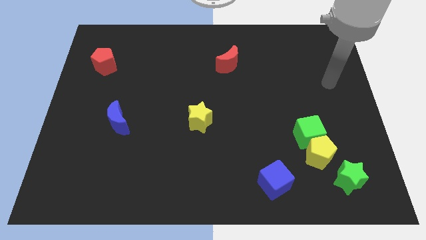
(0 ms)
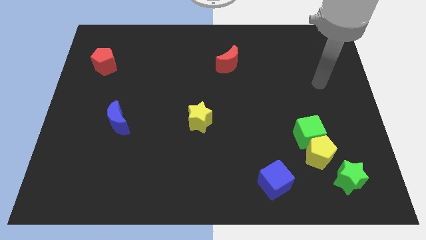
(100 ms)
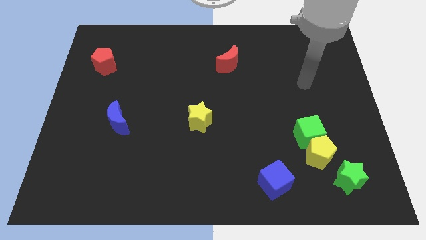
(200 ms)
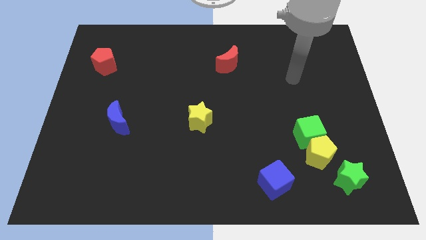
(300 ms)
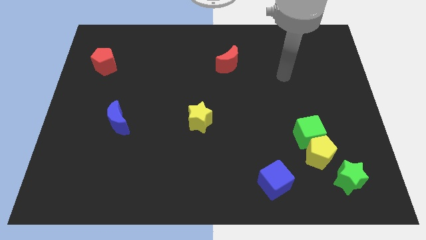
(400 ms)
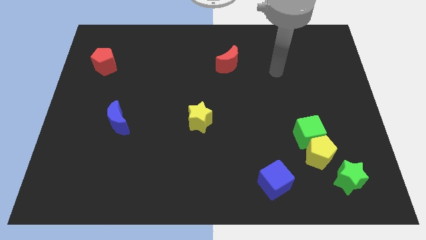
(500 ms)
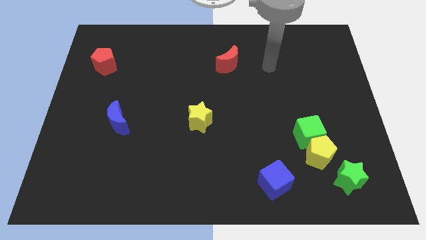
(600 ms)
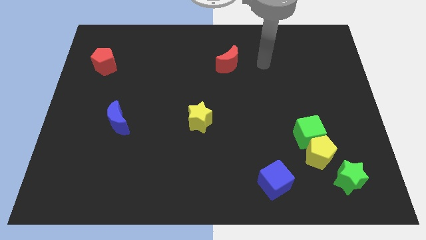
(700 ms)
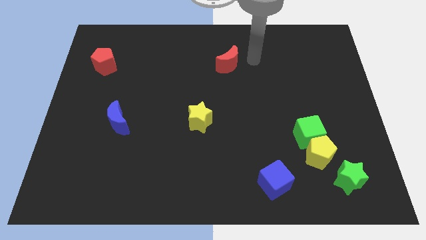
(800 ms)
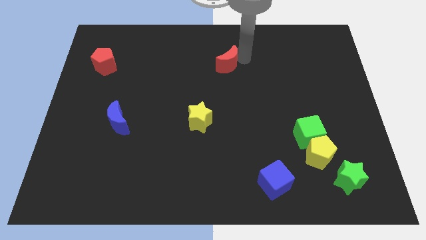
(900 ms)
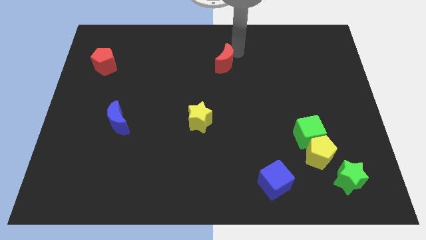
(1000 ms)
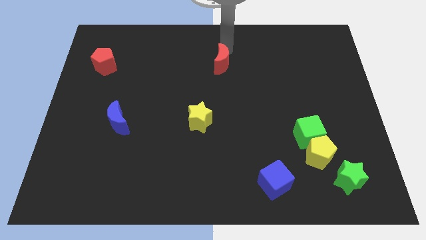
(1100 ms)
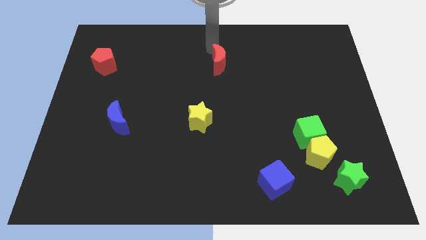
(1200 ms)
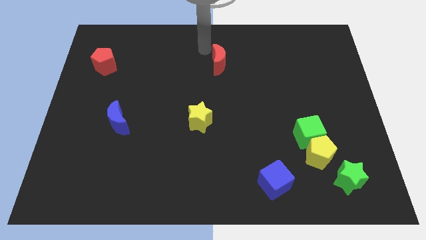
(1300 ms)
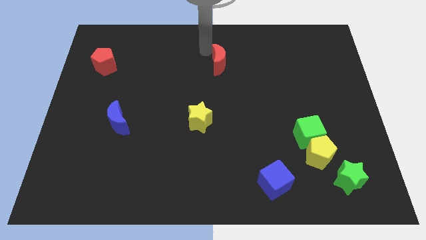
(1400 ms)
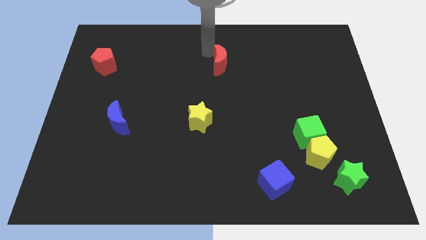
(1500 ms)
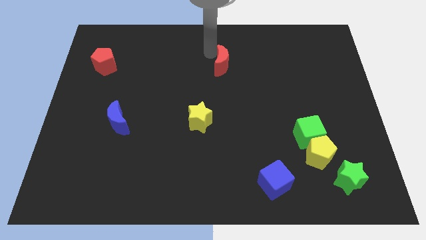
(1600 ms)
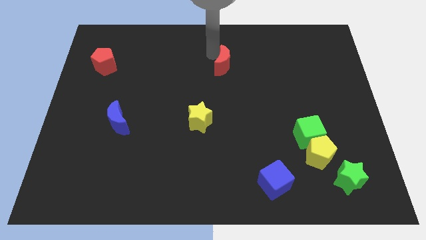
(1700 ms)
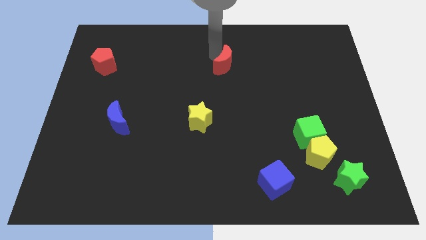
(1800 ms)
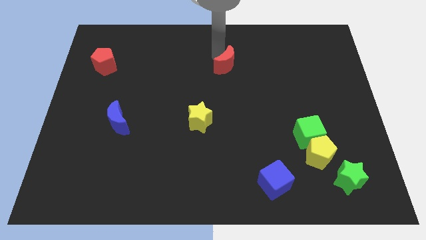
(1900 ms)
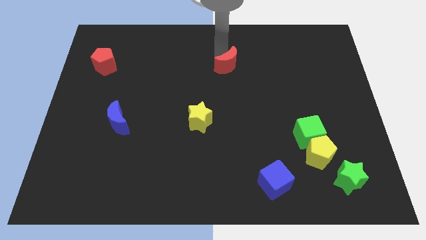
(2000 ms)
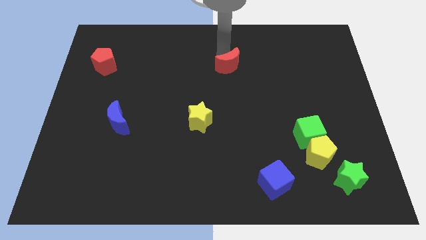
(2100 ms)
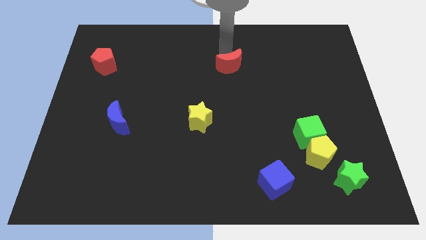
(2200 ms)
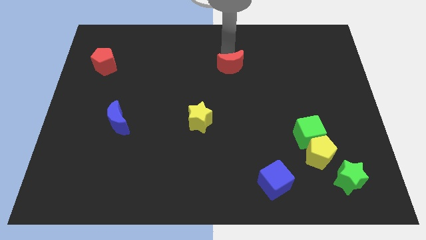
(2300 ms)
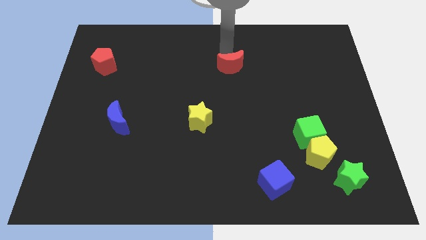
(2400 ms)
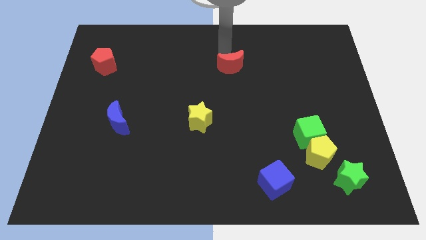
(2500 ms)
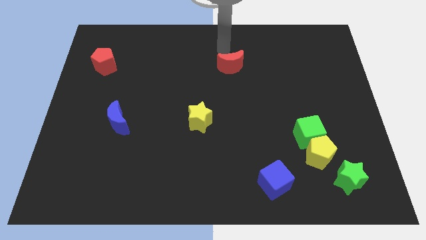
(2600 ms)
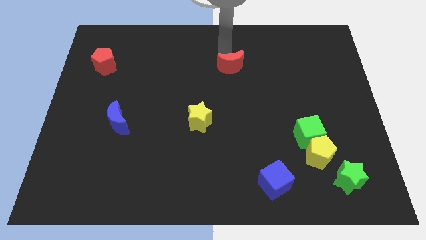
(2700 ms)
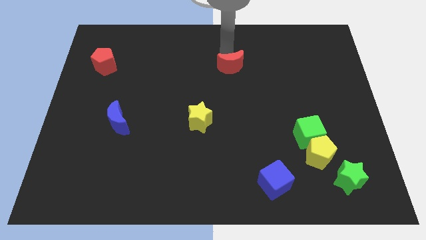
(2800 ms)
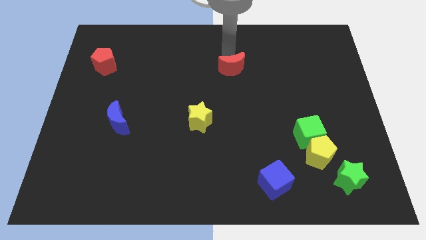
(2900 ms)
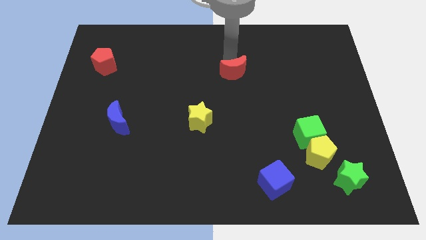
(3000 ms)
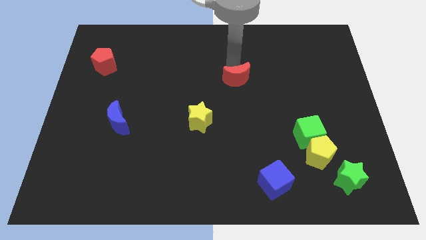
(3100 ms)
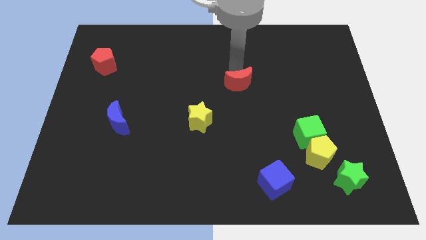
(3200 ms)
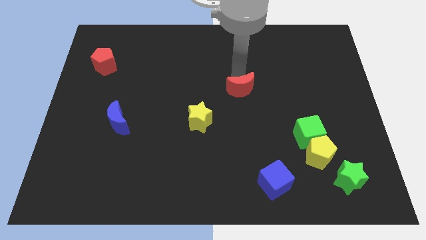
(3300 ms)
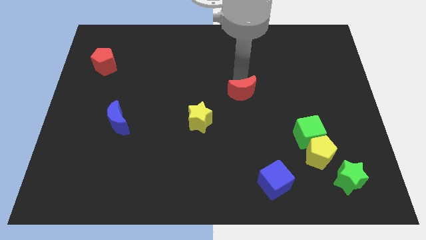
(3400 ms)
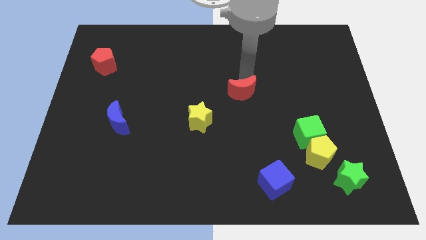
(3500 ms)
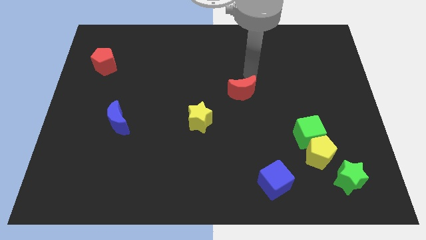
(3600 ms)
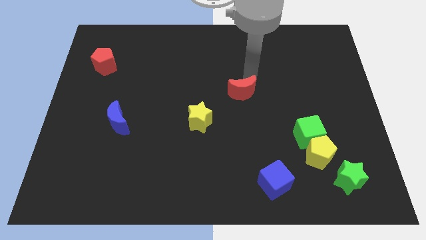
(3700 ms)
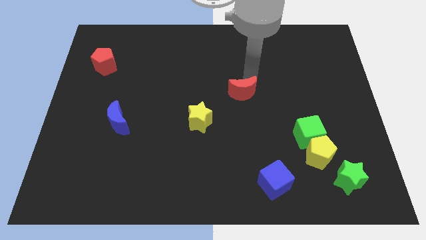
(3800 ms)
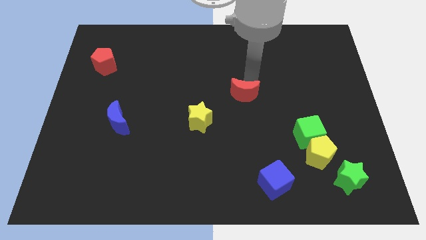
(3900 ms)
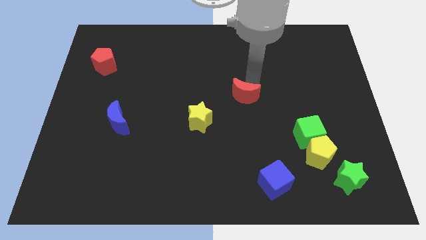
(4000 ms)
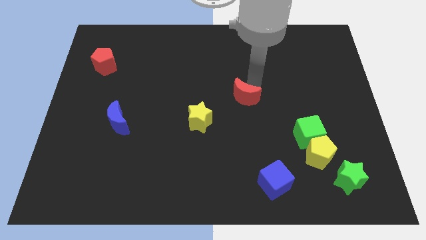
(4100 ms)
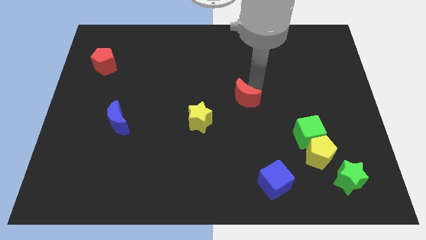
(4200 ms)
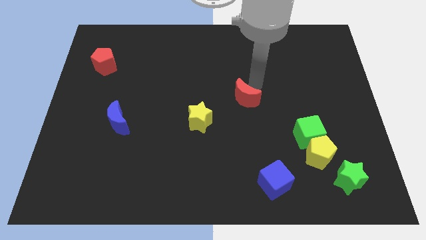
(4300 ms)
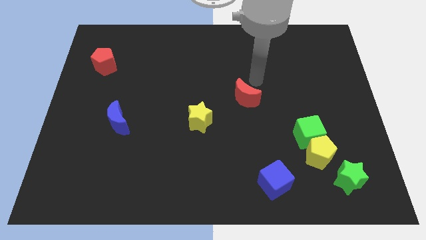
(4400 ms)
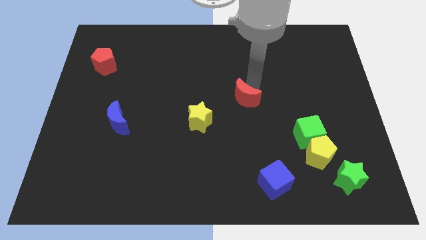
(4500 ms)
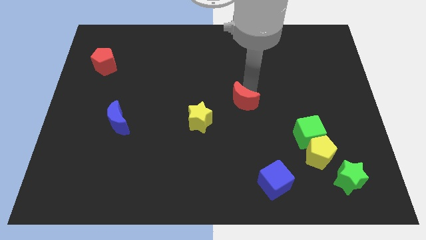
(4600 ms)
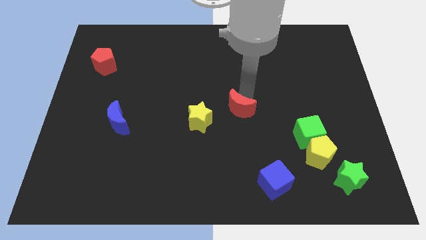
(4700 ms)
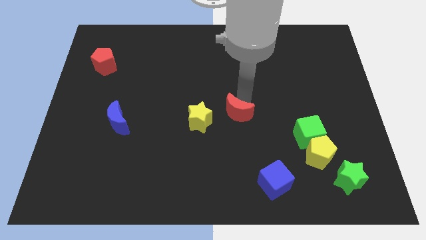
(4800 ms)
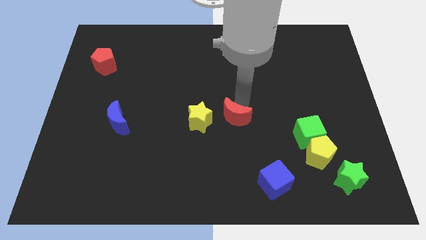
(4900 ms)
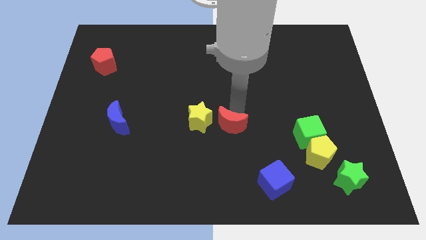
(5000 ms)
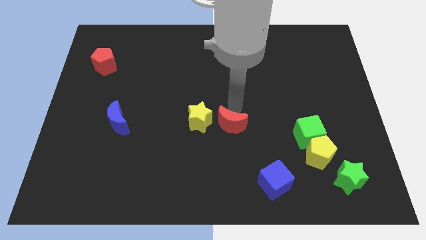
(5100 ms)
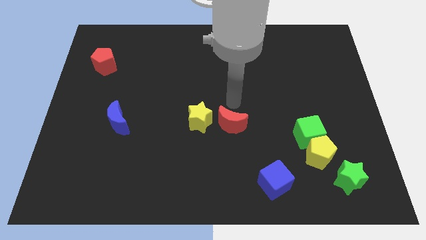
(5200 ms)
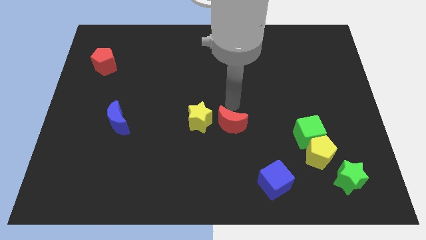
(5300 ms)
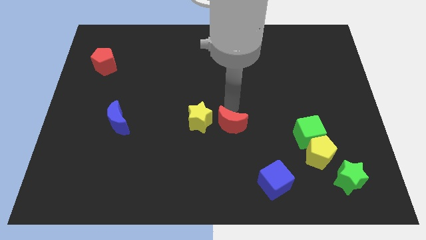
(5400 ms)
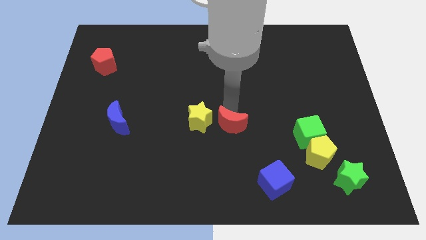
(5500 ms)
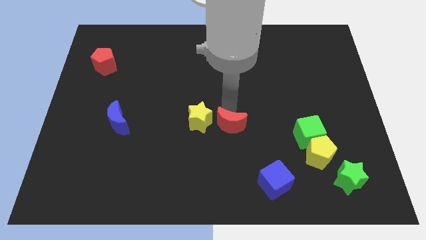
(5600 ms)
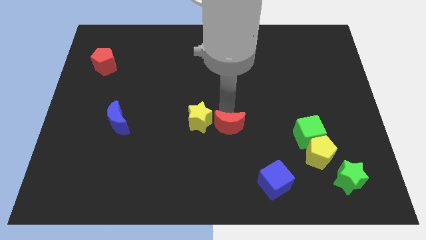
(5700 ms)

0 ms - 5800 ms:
move the red moon down

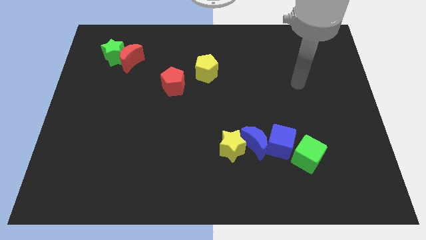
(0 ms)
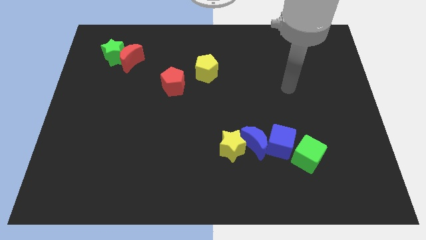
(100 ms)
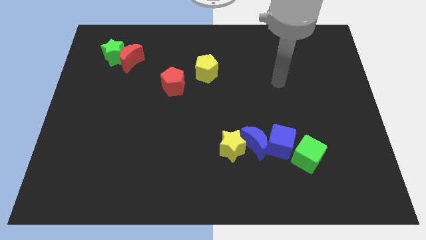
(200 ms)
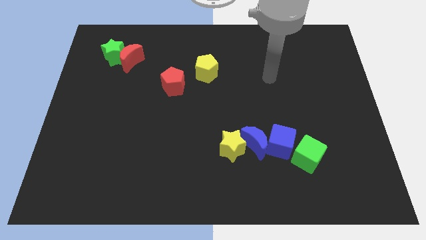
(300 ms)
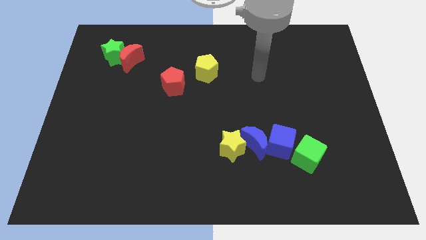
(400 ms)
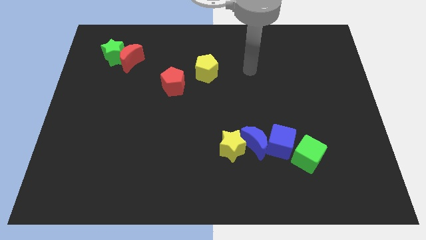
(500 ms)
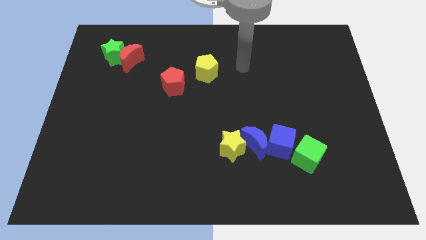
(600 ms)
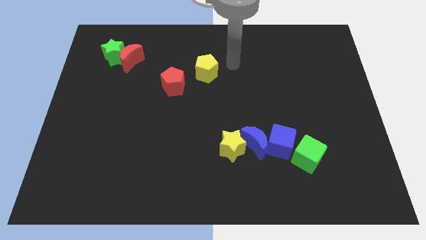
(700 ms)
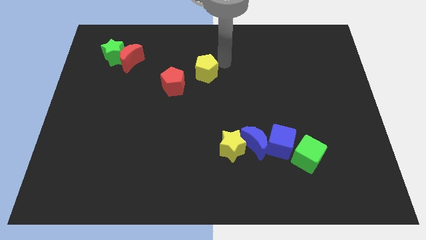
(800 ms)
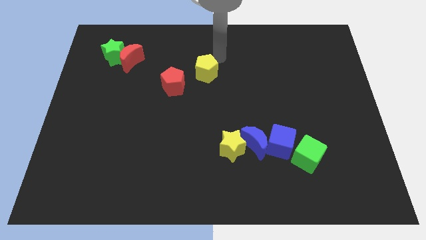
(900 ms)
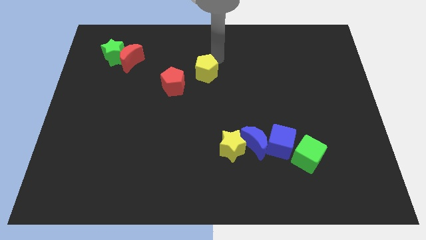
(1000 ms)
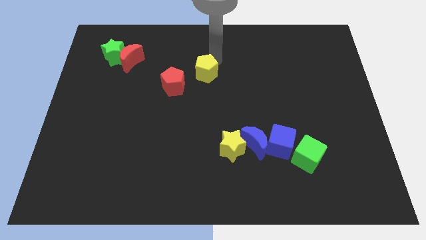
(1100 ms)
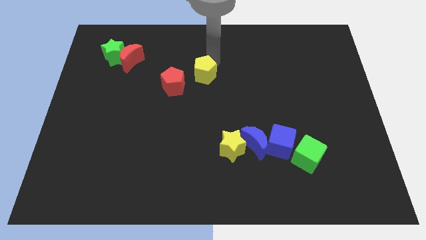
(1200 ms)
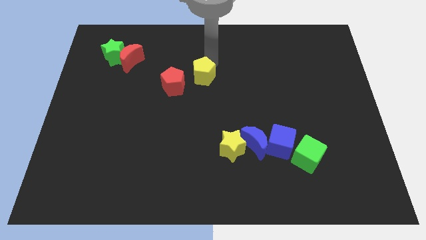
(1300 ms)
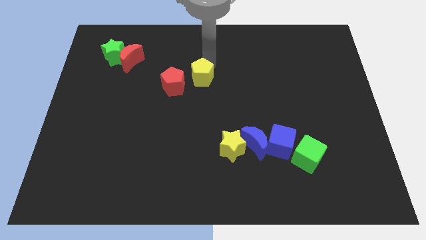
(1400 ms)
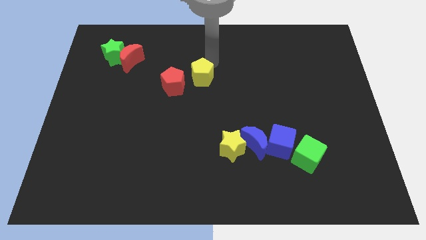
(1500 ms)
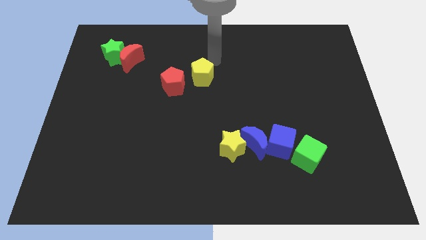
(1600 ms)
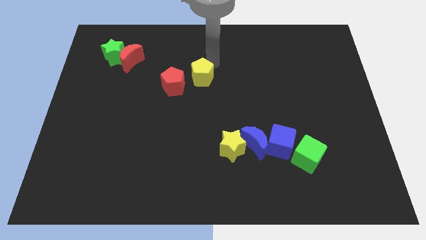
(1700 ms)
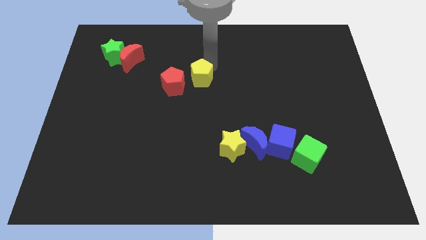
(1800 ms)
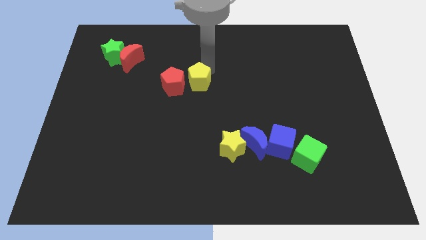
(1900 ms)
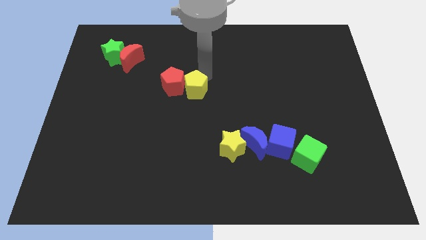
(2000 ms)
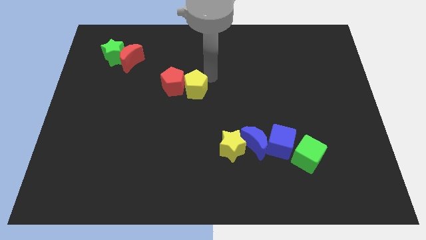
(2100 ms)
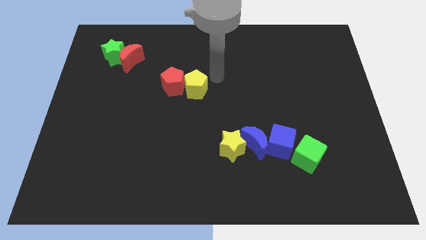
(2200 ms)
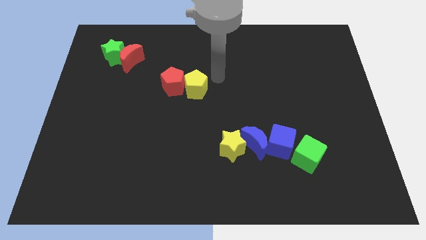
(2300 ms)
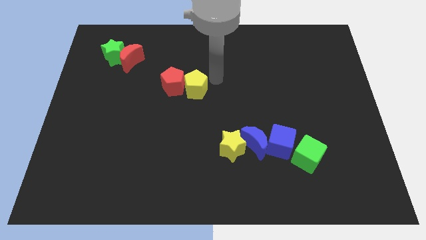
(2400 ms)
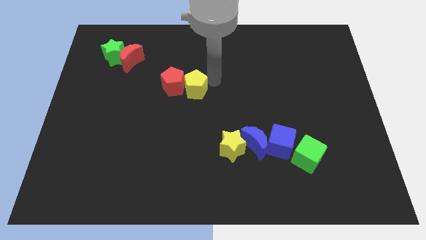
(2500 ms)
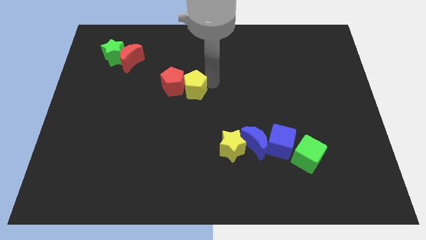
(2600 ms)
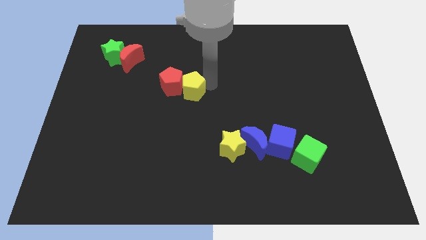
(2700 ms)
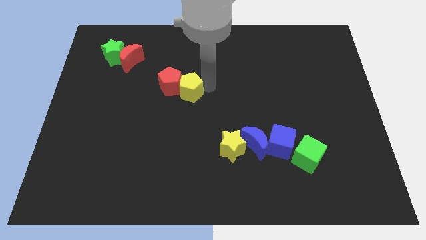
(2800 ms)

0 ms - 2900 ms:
slightly move the yellow pentagon downwards and to the left diagonally
